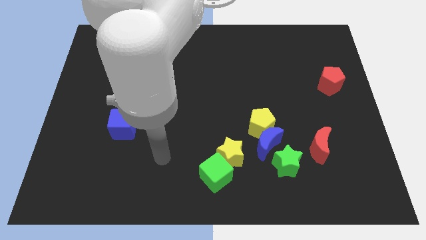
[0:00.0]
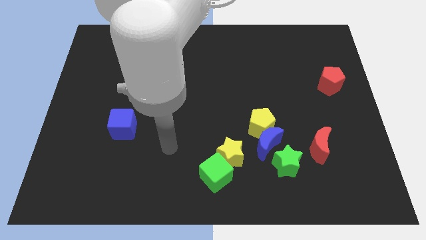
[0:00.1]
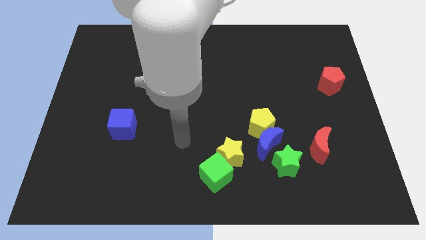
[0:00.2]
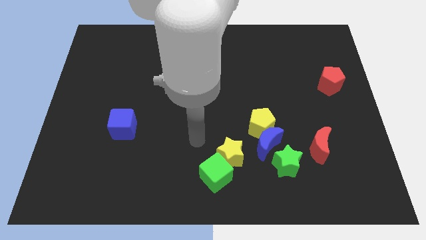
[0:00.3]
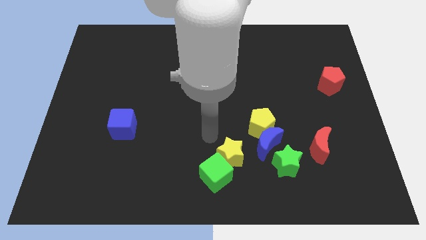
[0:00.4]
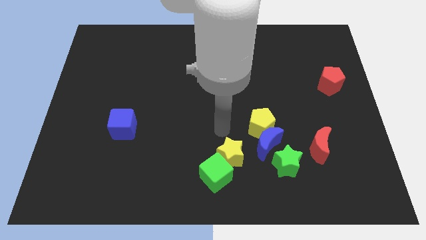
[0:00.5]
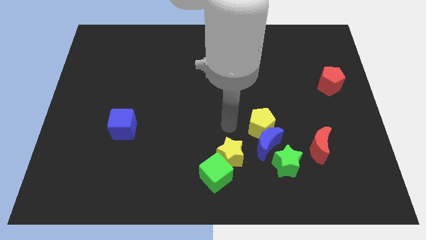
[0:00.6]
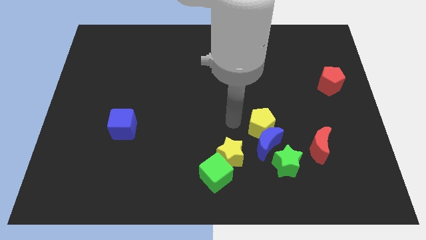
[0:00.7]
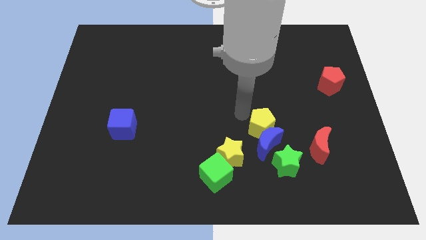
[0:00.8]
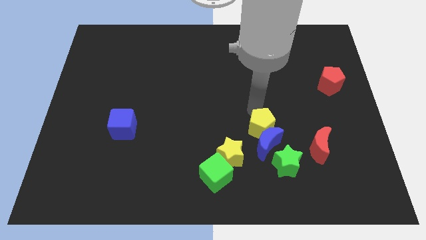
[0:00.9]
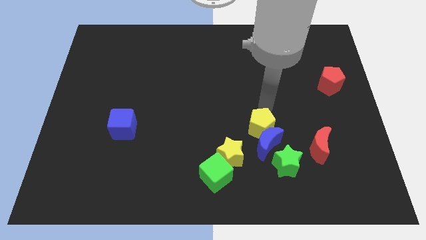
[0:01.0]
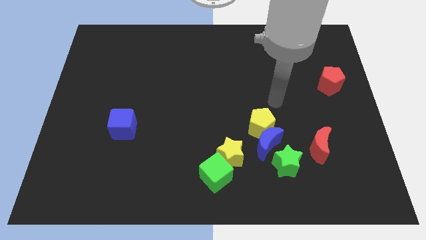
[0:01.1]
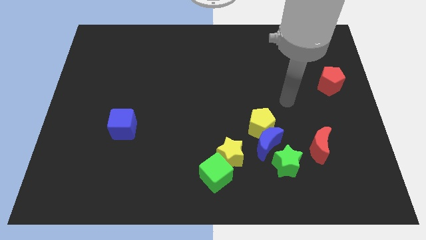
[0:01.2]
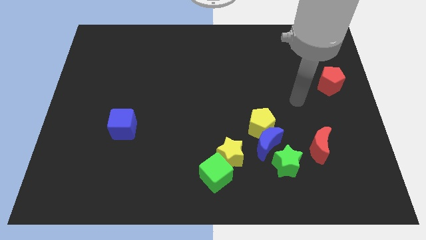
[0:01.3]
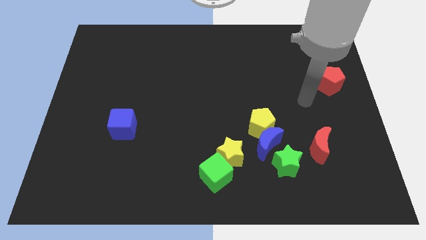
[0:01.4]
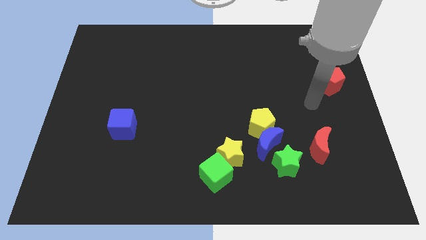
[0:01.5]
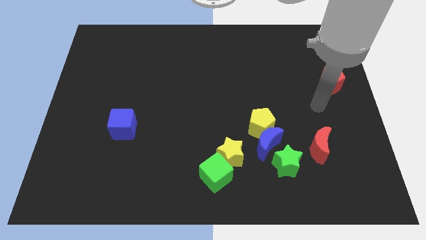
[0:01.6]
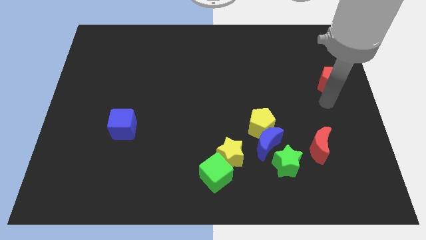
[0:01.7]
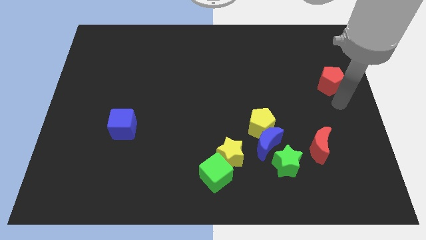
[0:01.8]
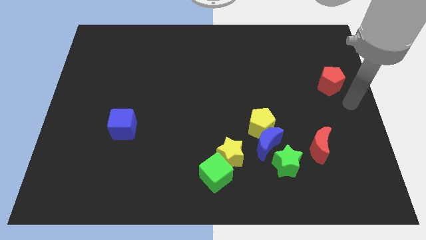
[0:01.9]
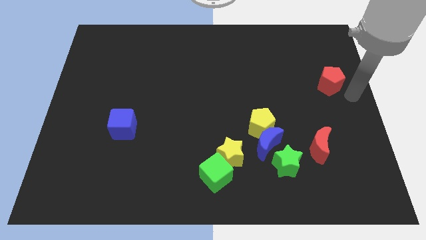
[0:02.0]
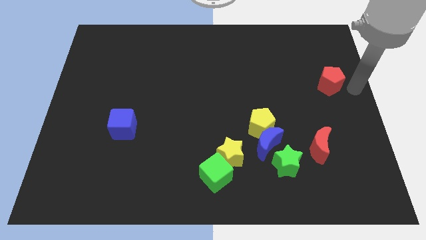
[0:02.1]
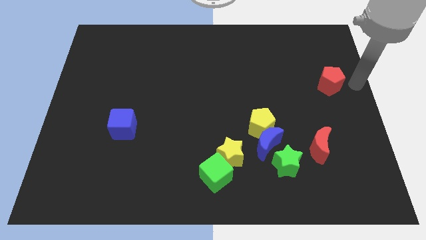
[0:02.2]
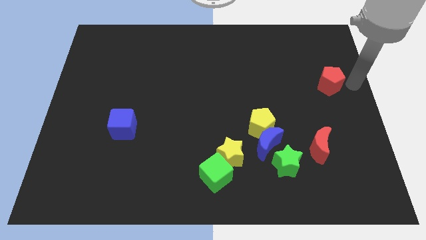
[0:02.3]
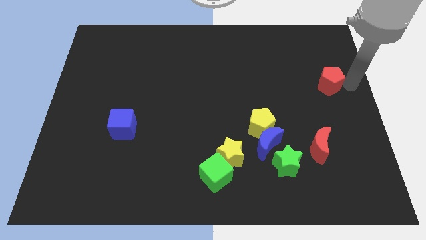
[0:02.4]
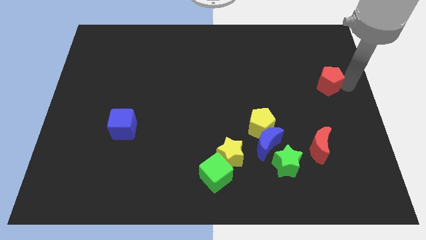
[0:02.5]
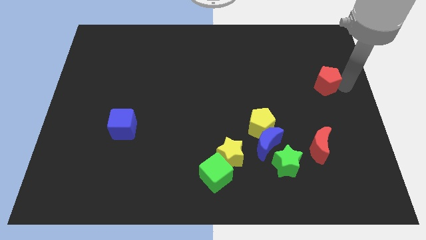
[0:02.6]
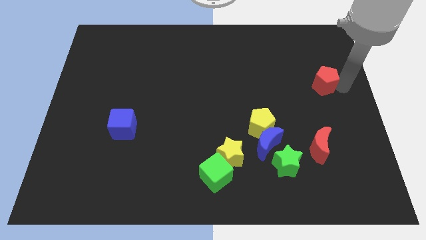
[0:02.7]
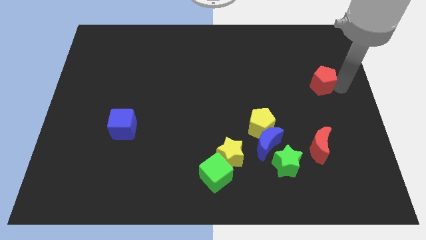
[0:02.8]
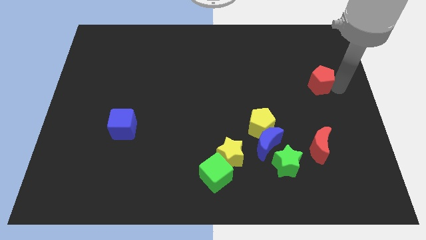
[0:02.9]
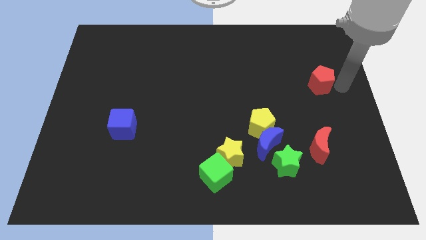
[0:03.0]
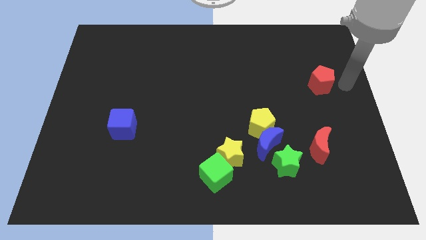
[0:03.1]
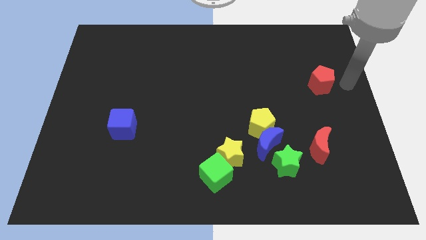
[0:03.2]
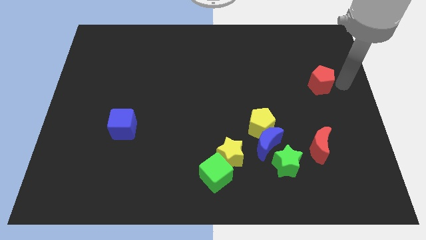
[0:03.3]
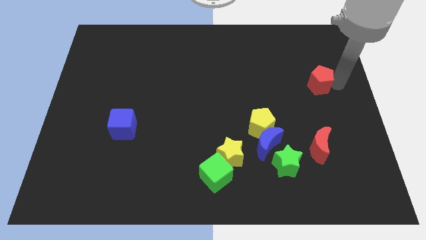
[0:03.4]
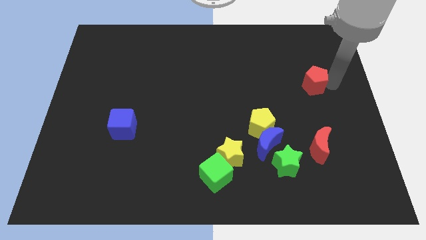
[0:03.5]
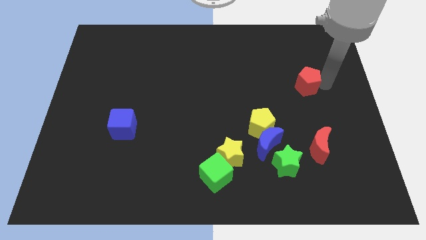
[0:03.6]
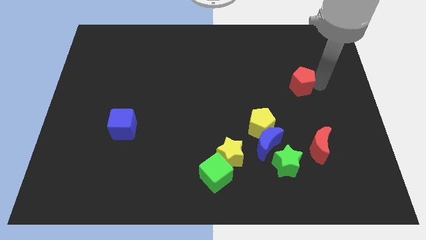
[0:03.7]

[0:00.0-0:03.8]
slightly slide the red pentagon left

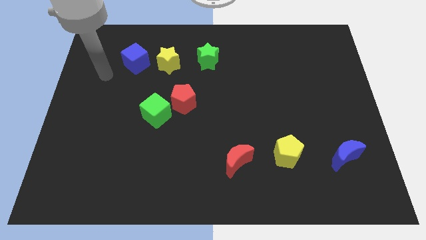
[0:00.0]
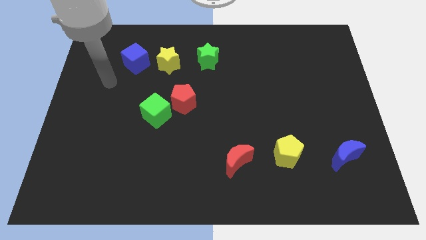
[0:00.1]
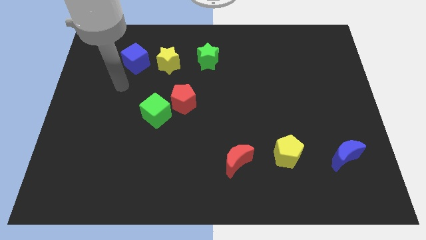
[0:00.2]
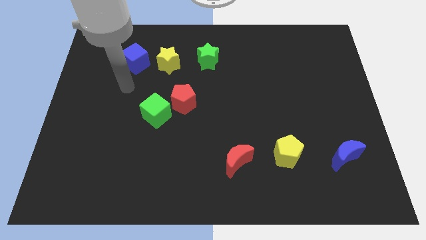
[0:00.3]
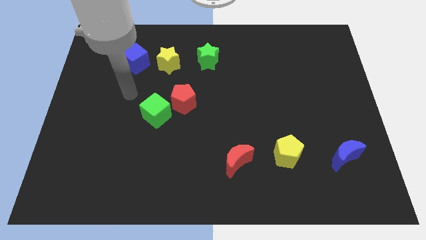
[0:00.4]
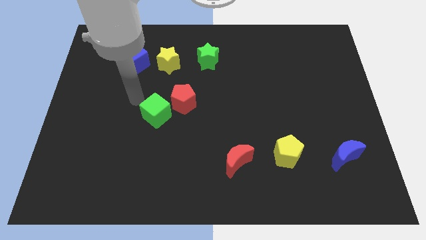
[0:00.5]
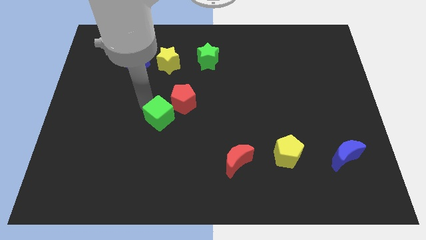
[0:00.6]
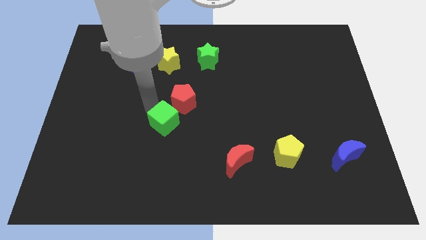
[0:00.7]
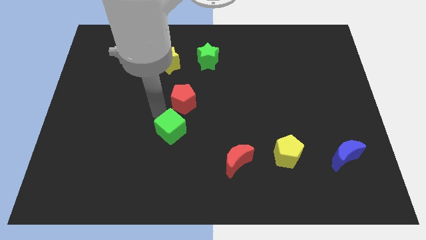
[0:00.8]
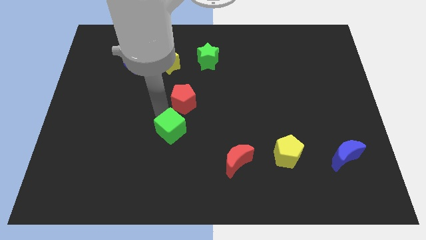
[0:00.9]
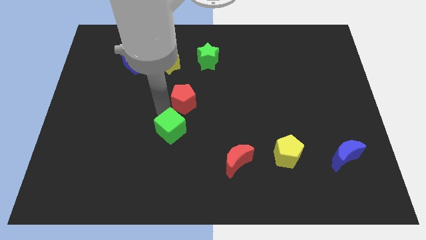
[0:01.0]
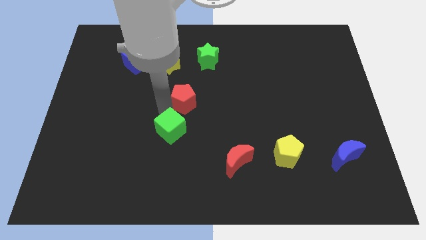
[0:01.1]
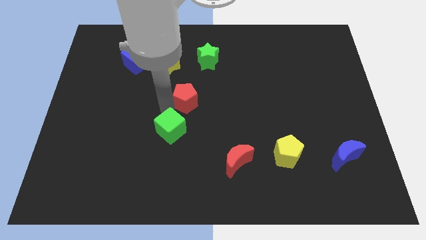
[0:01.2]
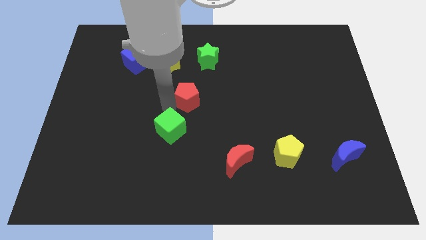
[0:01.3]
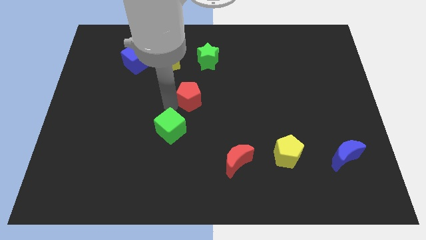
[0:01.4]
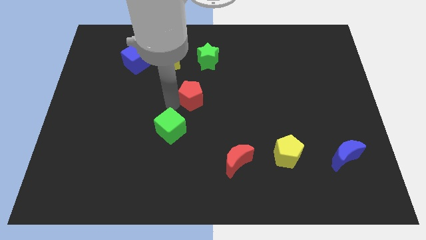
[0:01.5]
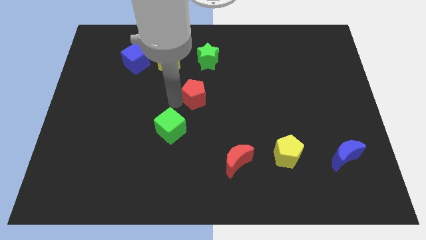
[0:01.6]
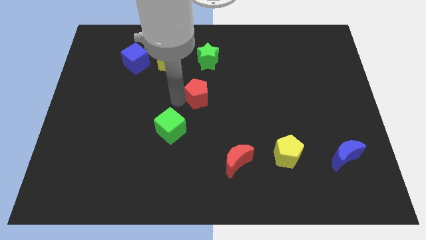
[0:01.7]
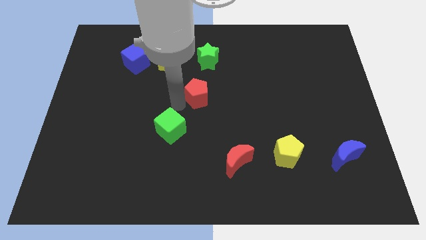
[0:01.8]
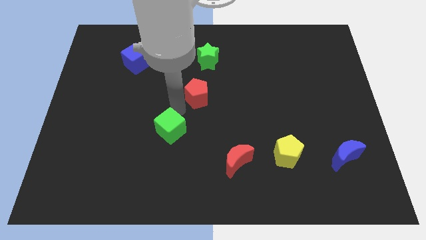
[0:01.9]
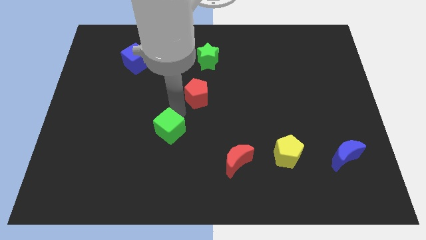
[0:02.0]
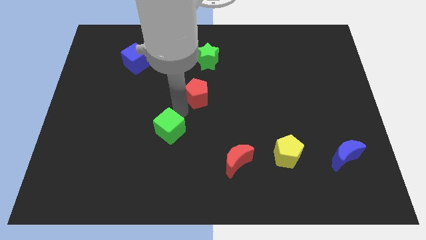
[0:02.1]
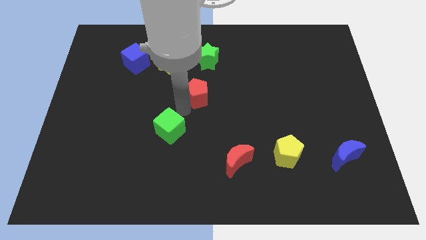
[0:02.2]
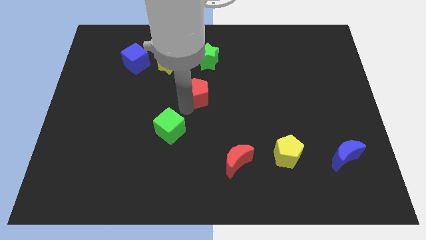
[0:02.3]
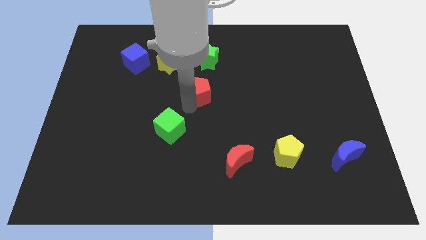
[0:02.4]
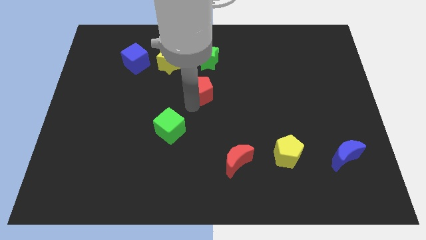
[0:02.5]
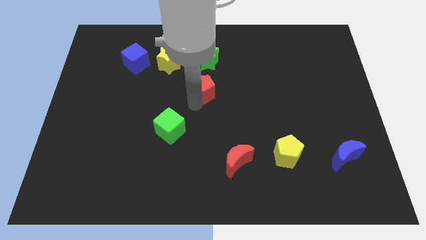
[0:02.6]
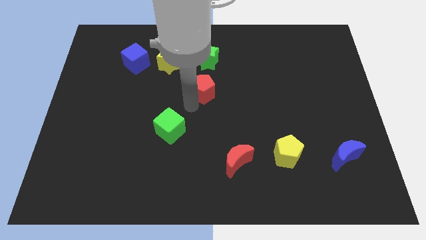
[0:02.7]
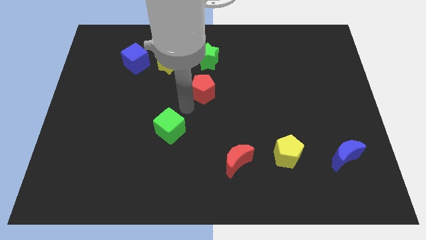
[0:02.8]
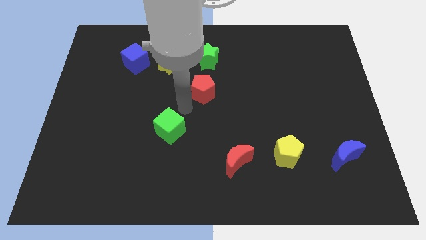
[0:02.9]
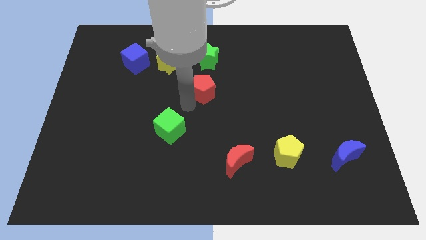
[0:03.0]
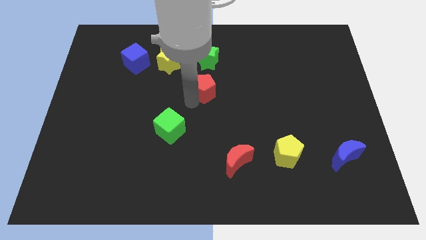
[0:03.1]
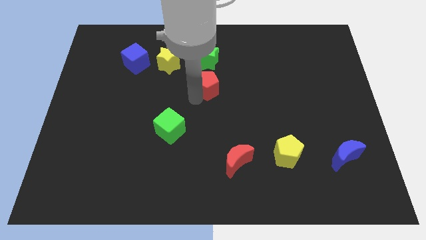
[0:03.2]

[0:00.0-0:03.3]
slightly push the red pentagon up and right

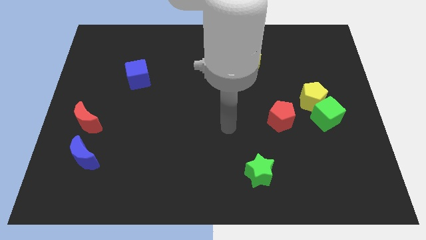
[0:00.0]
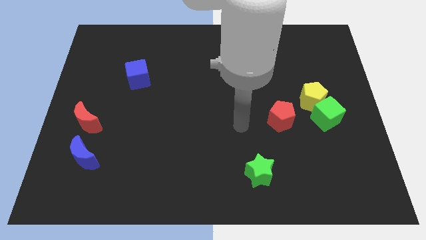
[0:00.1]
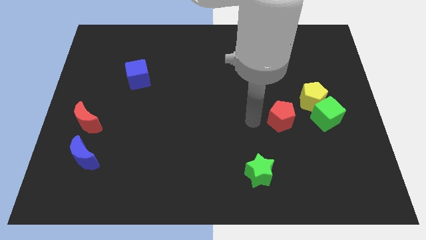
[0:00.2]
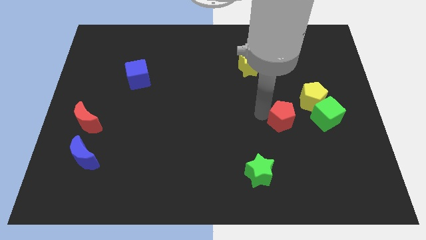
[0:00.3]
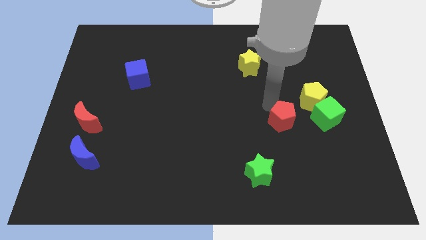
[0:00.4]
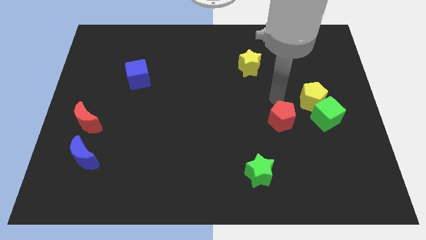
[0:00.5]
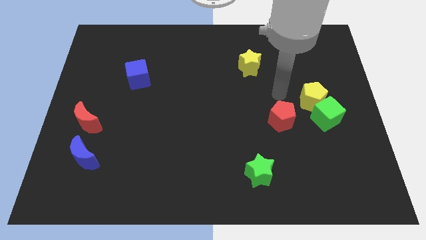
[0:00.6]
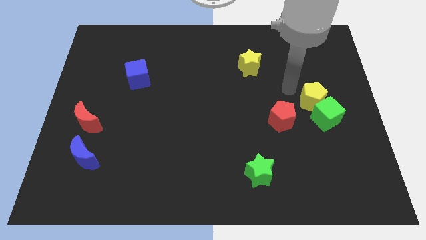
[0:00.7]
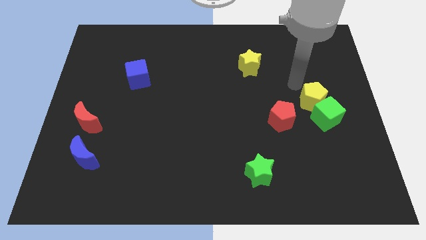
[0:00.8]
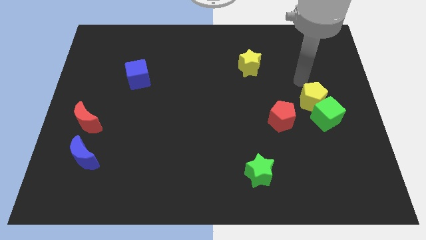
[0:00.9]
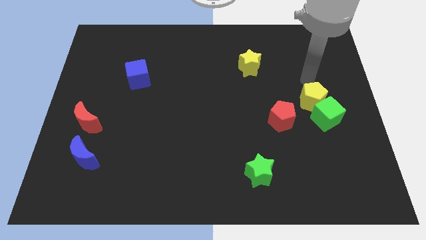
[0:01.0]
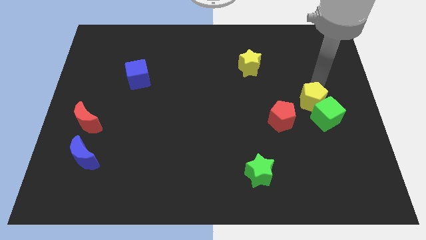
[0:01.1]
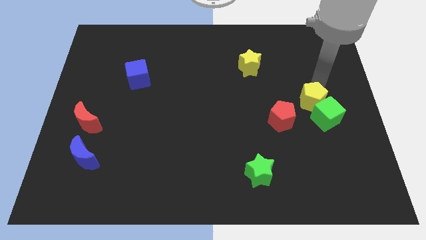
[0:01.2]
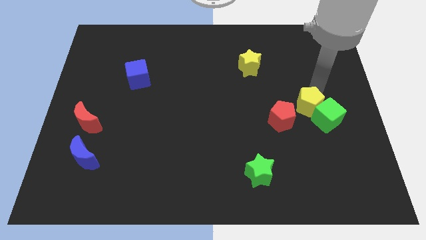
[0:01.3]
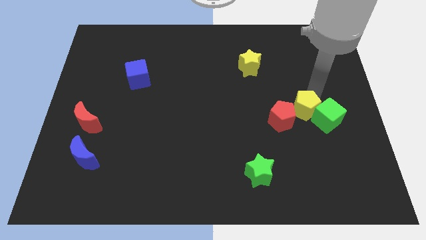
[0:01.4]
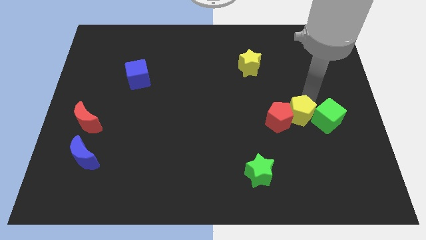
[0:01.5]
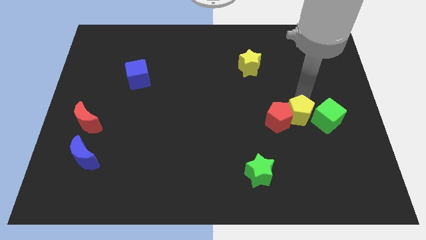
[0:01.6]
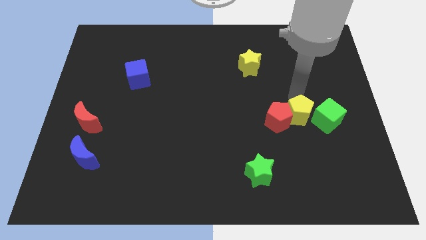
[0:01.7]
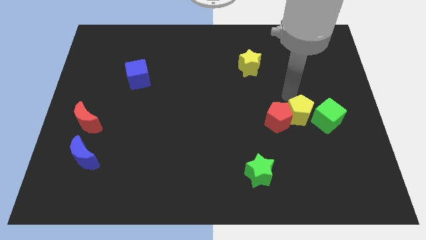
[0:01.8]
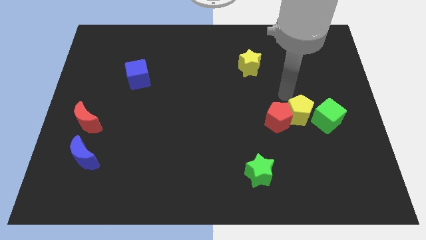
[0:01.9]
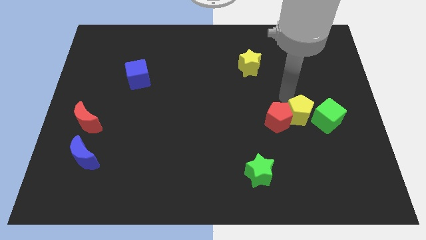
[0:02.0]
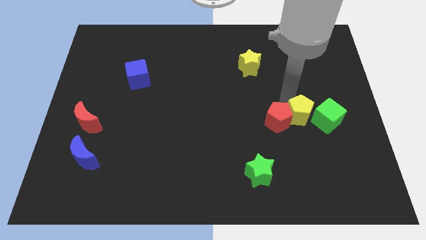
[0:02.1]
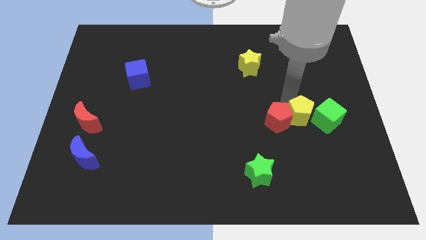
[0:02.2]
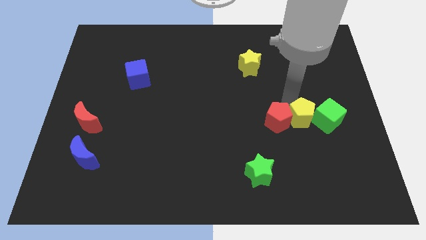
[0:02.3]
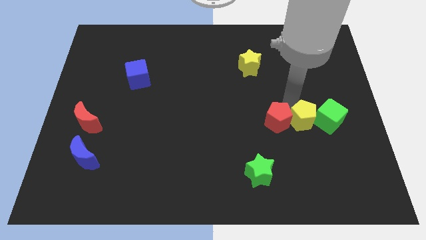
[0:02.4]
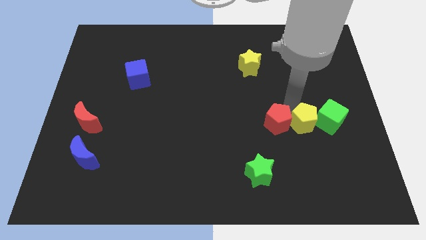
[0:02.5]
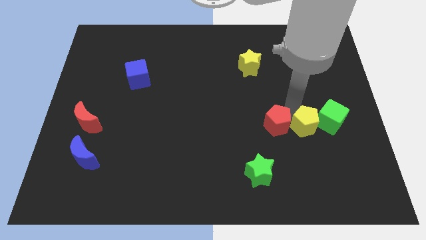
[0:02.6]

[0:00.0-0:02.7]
slightly slide the yellow pentagon downwards
